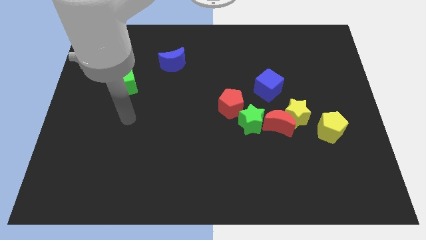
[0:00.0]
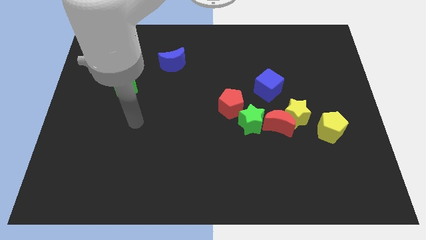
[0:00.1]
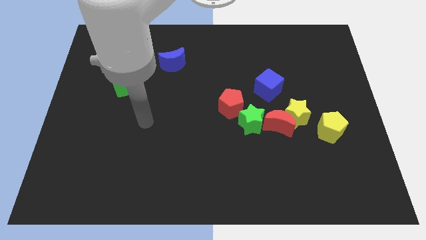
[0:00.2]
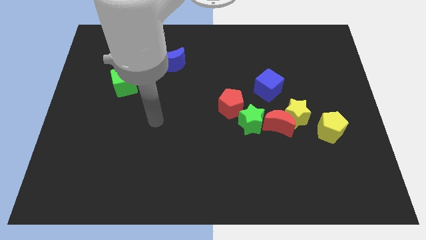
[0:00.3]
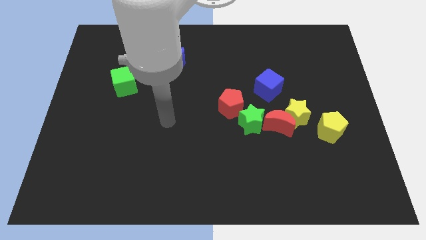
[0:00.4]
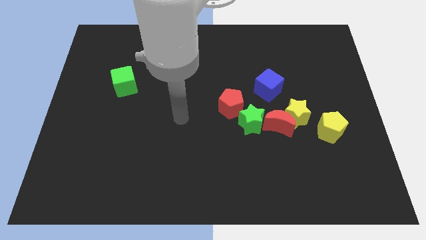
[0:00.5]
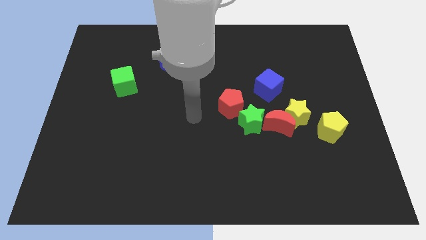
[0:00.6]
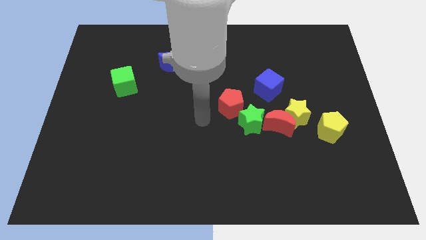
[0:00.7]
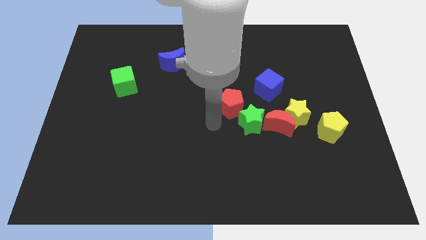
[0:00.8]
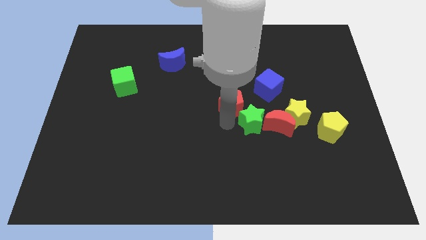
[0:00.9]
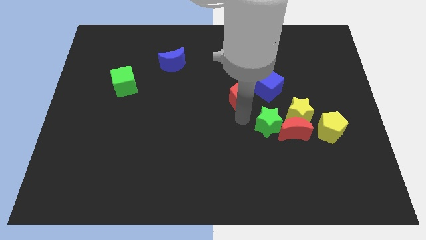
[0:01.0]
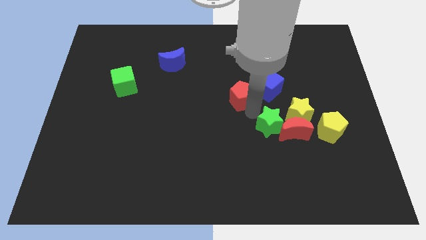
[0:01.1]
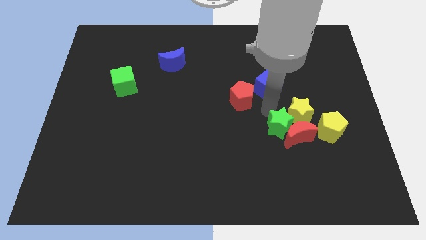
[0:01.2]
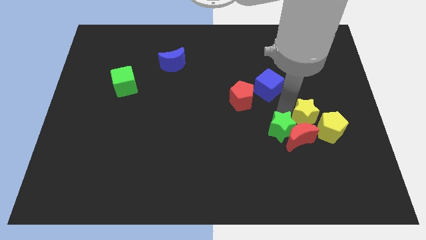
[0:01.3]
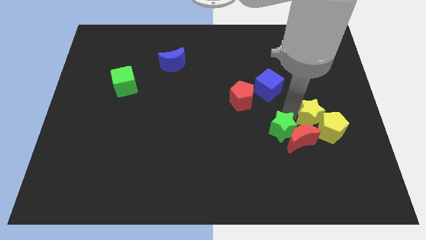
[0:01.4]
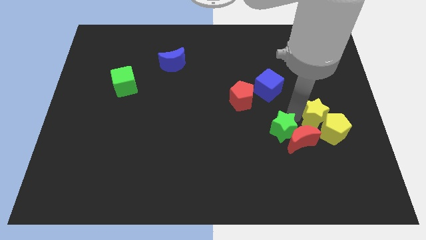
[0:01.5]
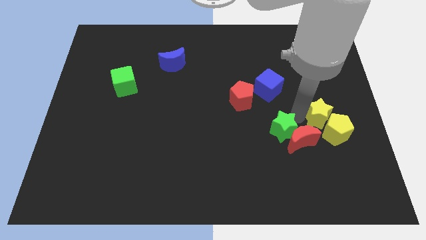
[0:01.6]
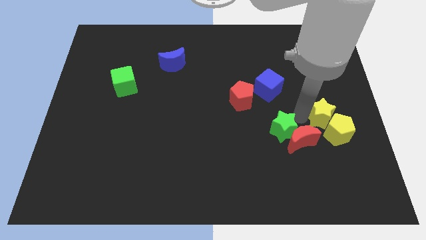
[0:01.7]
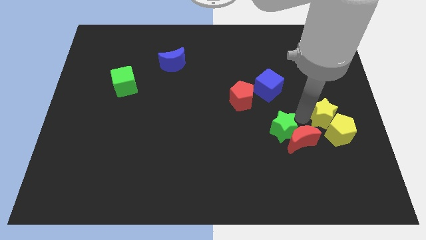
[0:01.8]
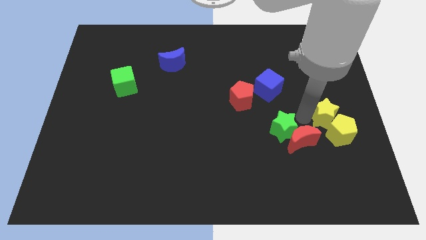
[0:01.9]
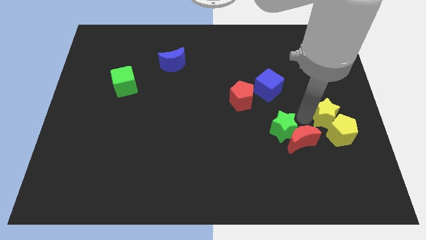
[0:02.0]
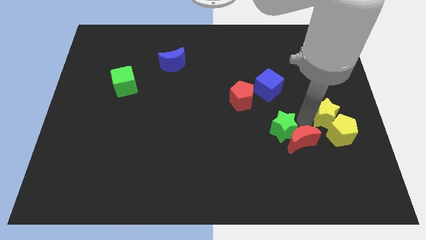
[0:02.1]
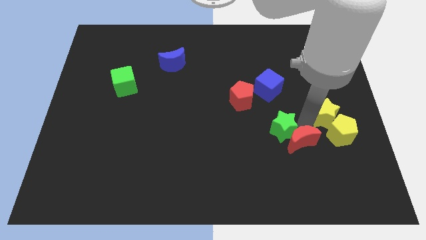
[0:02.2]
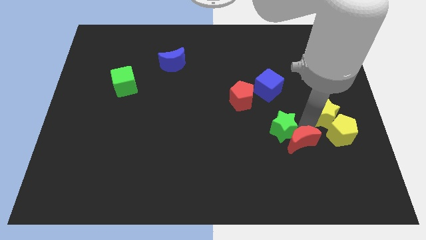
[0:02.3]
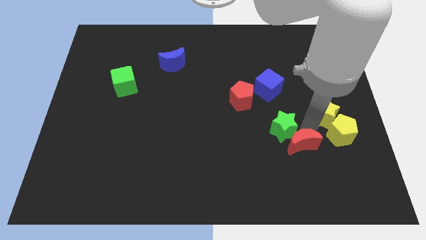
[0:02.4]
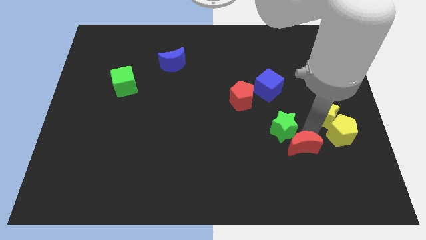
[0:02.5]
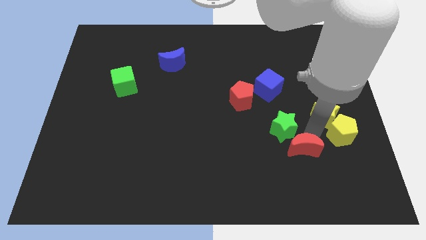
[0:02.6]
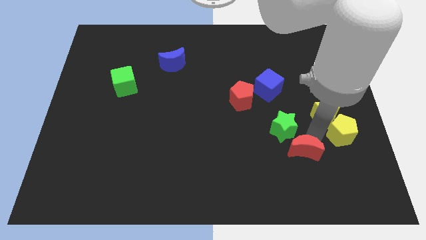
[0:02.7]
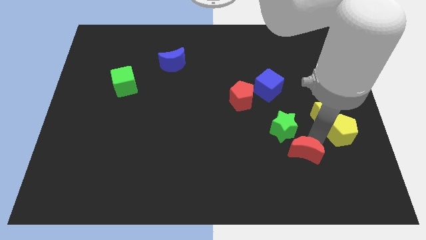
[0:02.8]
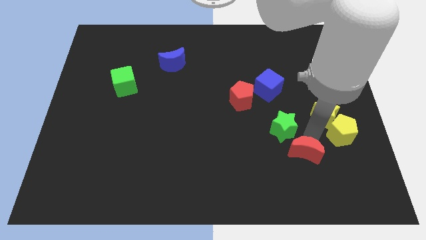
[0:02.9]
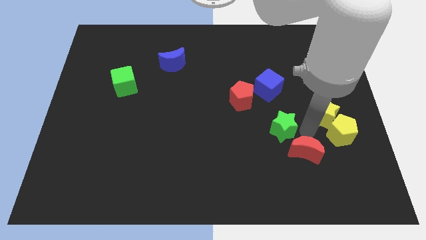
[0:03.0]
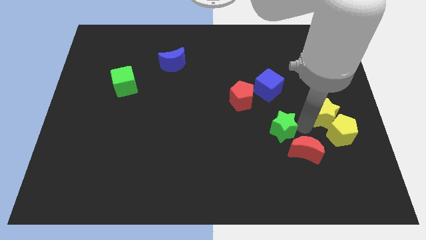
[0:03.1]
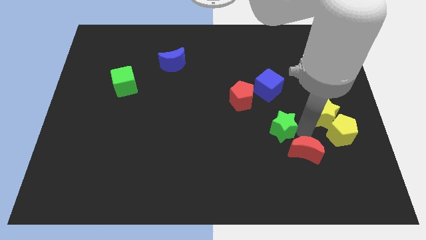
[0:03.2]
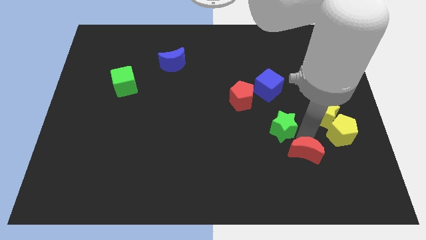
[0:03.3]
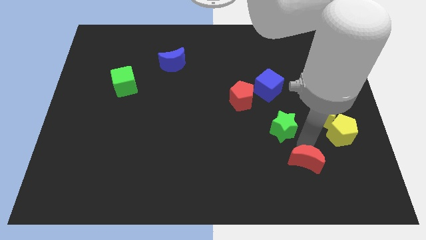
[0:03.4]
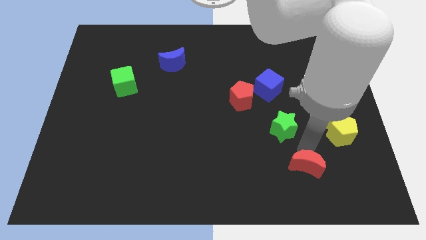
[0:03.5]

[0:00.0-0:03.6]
pull the red moon apart from the yellow star and green star

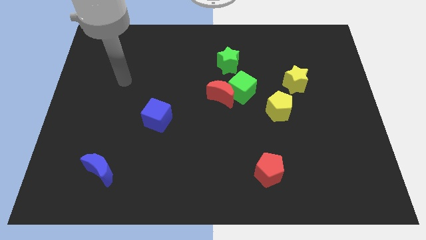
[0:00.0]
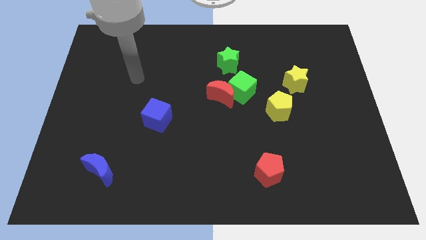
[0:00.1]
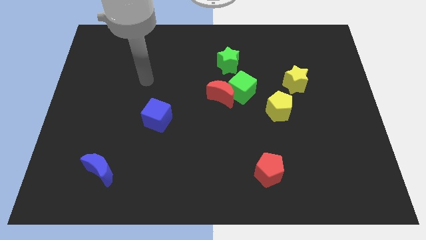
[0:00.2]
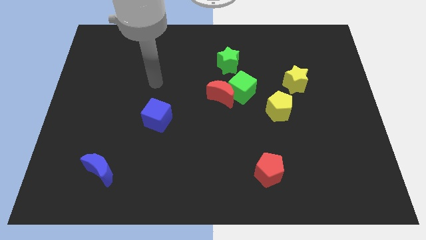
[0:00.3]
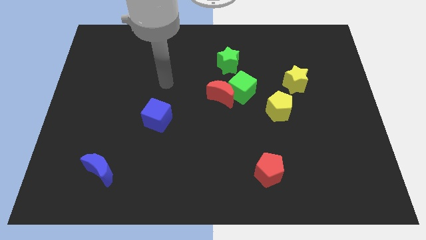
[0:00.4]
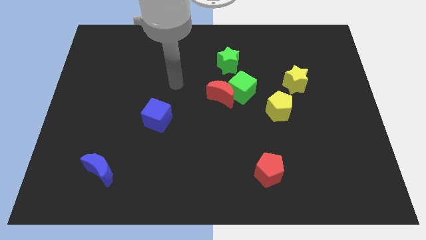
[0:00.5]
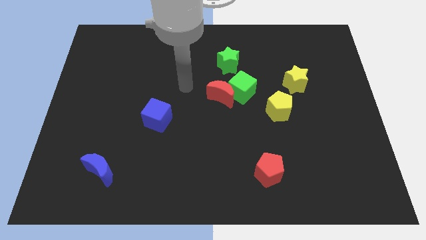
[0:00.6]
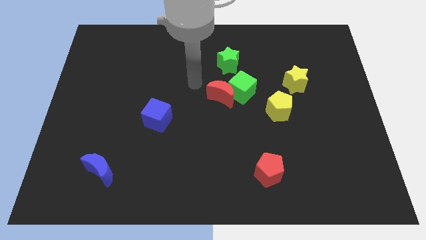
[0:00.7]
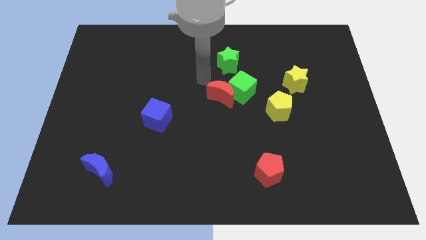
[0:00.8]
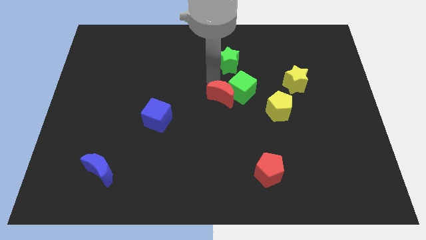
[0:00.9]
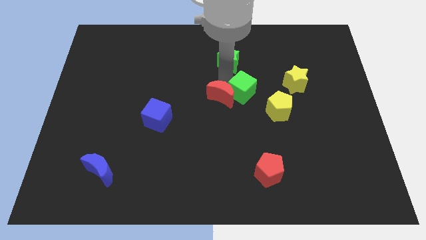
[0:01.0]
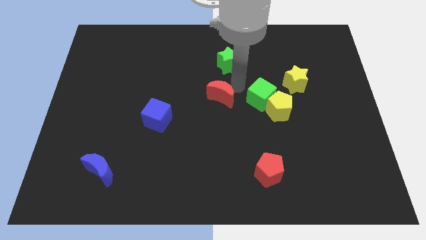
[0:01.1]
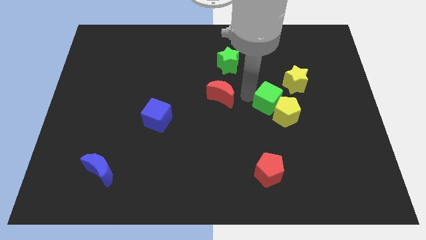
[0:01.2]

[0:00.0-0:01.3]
pull the red moon apart from the green cube

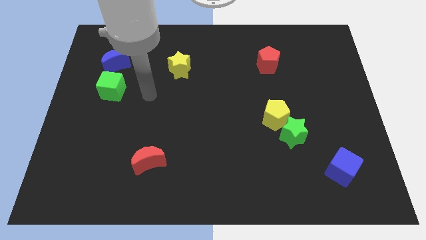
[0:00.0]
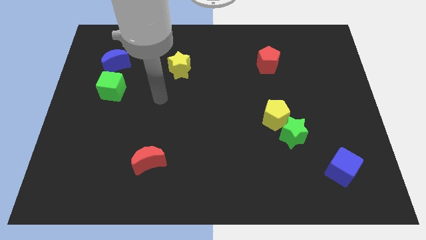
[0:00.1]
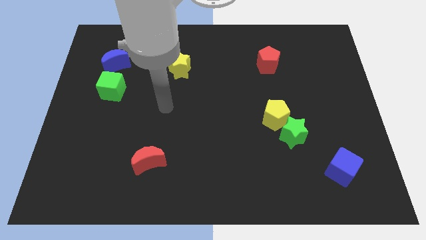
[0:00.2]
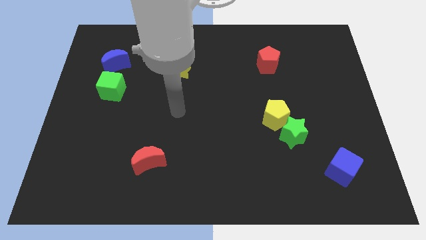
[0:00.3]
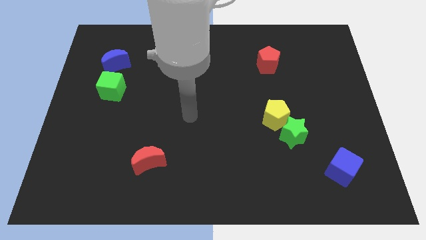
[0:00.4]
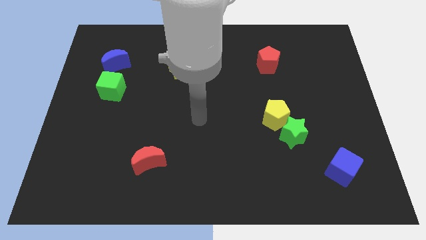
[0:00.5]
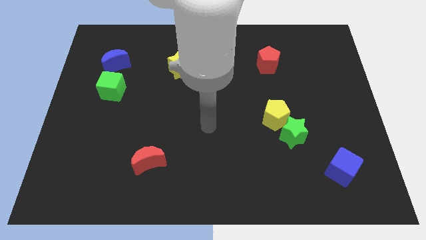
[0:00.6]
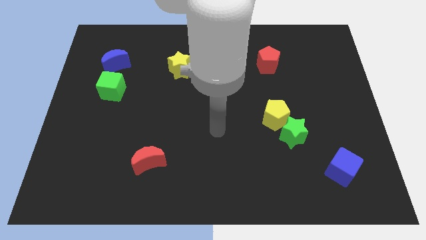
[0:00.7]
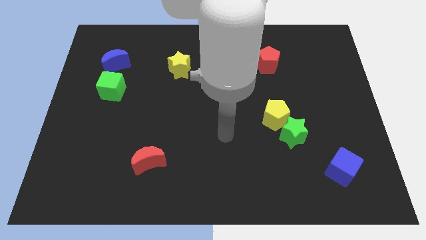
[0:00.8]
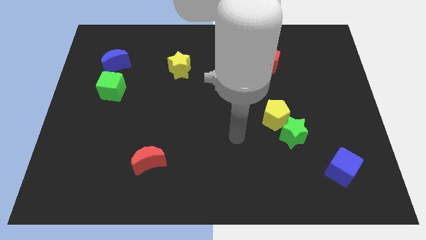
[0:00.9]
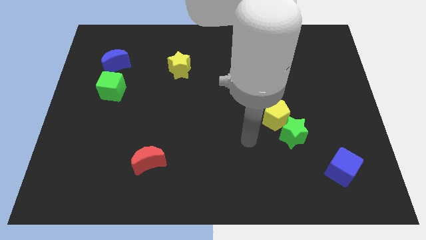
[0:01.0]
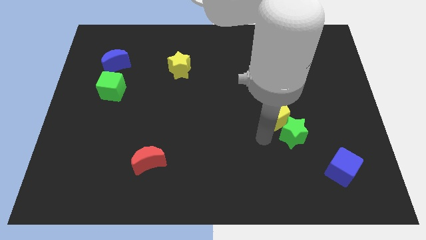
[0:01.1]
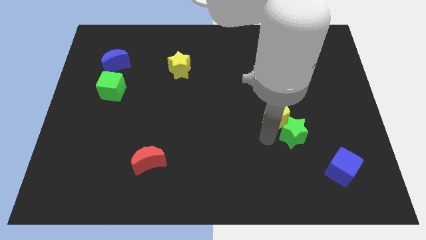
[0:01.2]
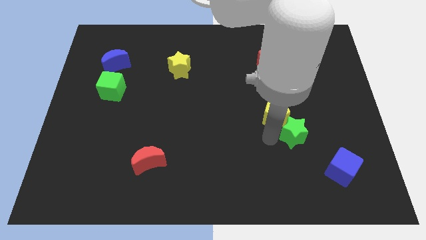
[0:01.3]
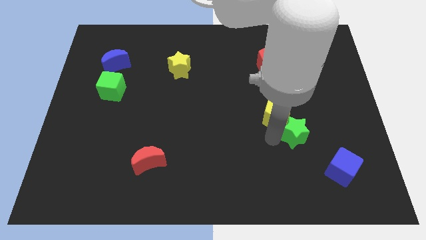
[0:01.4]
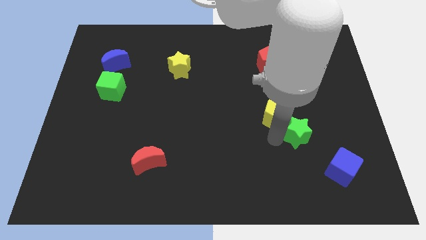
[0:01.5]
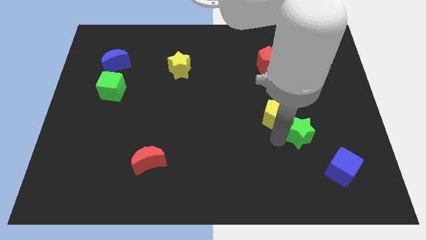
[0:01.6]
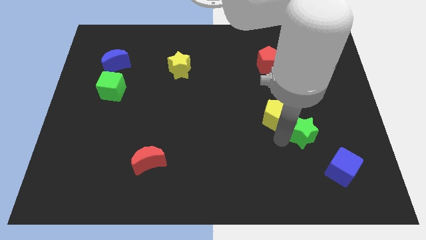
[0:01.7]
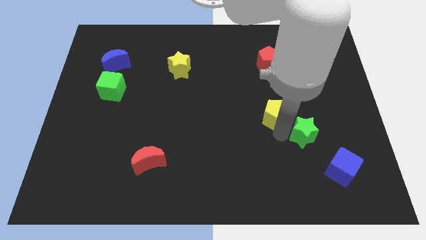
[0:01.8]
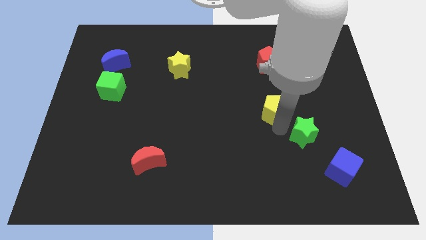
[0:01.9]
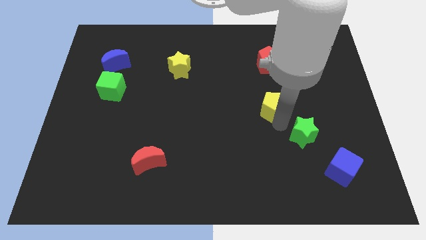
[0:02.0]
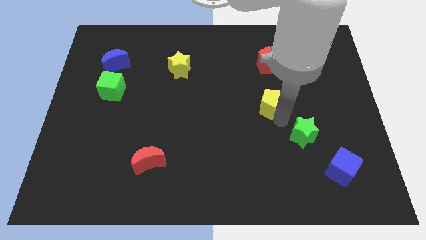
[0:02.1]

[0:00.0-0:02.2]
pull the green star apart from the yellow pentagon

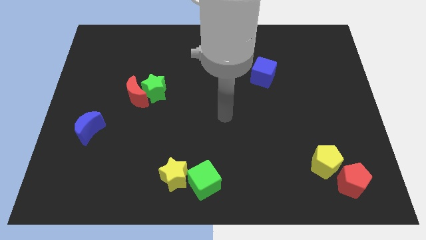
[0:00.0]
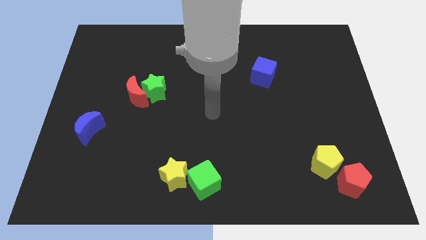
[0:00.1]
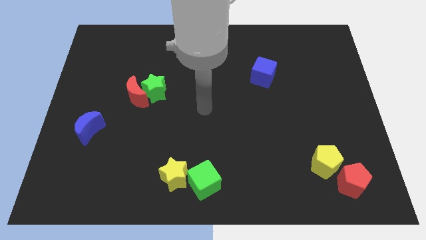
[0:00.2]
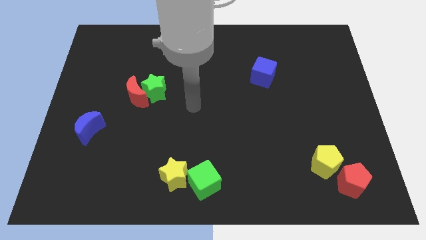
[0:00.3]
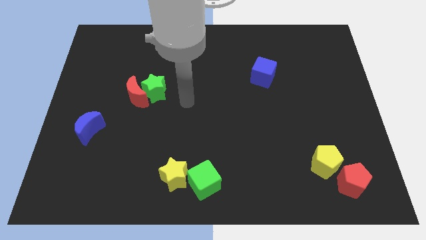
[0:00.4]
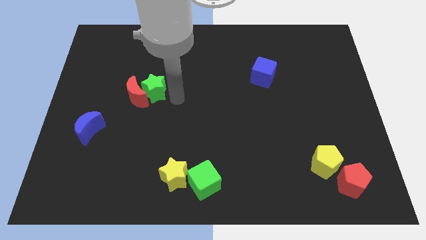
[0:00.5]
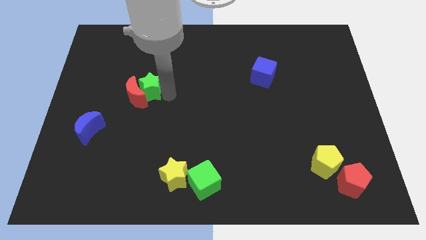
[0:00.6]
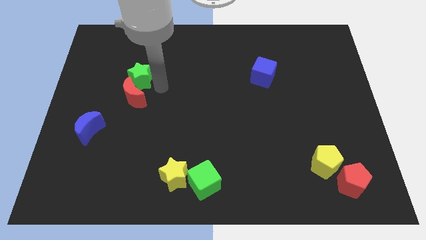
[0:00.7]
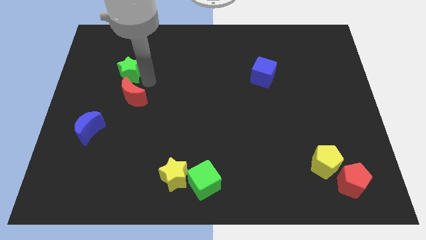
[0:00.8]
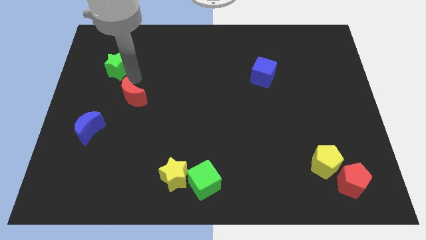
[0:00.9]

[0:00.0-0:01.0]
move the red moon away from the green star

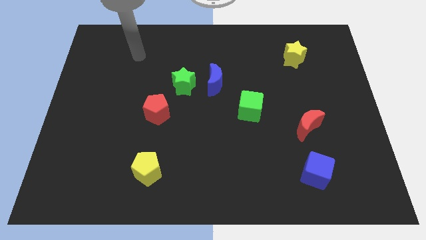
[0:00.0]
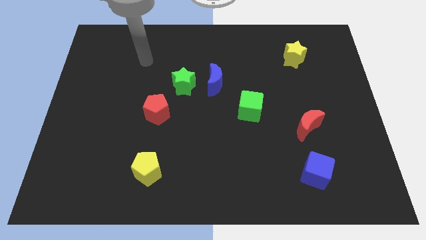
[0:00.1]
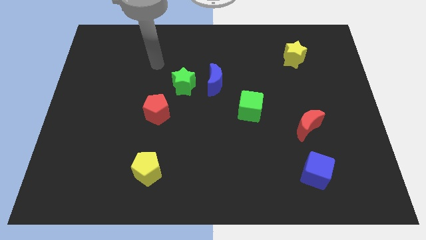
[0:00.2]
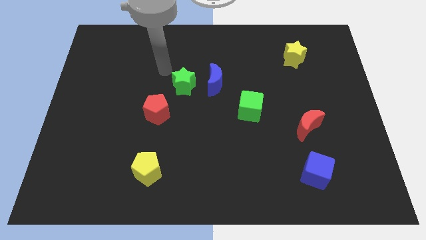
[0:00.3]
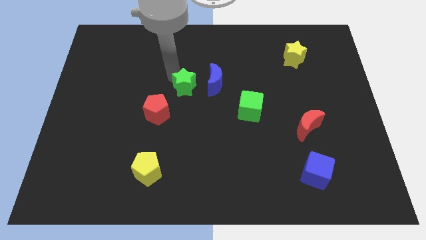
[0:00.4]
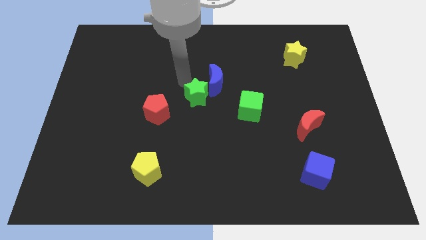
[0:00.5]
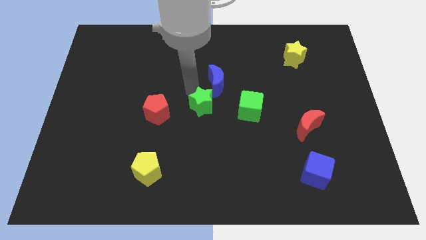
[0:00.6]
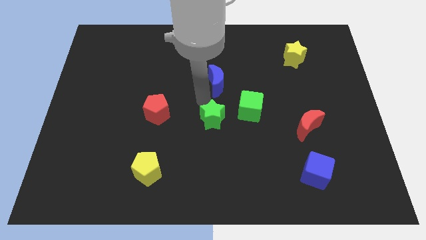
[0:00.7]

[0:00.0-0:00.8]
separate the blue moon from the green star

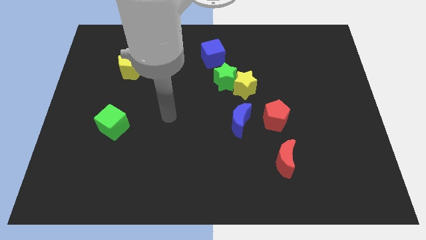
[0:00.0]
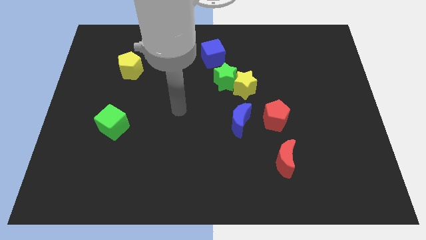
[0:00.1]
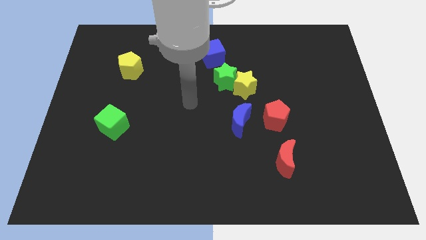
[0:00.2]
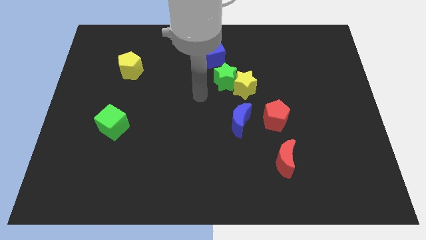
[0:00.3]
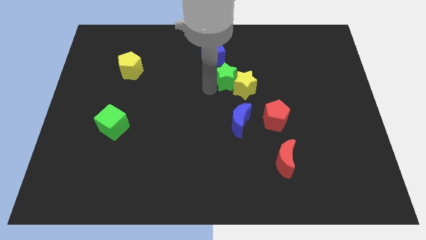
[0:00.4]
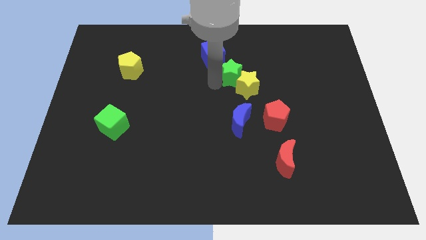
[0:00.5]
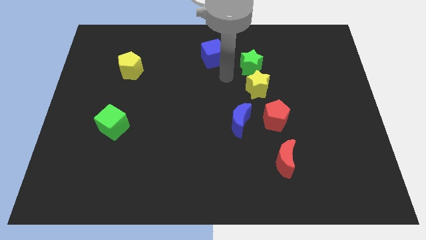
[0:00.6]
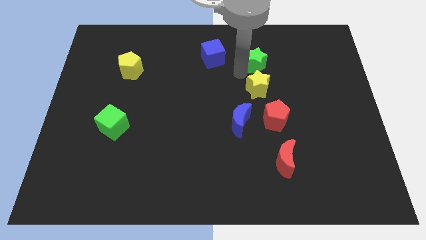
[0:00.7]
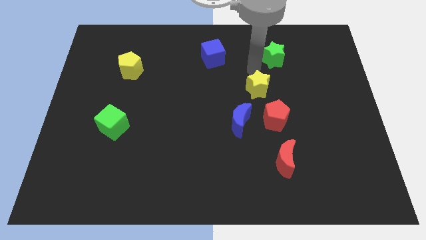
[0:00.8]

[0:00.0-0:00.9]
move the yellow star away from the green star
